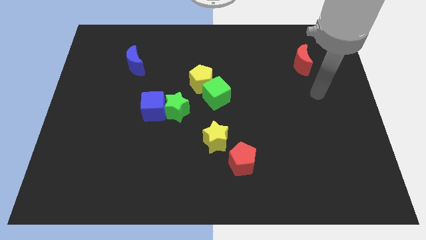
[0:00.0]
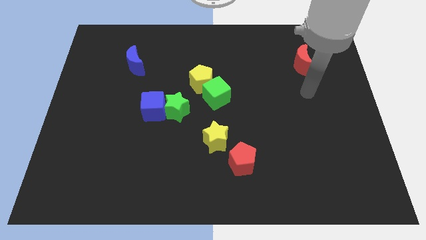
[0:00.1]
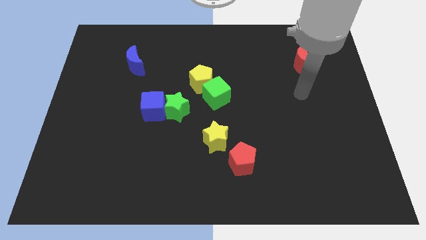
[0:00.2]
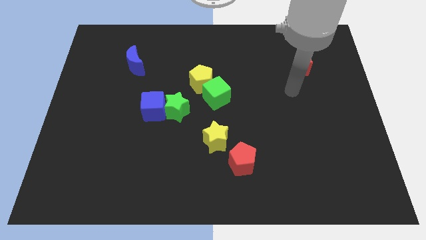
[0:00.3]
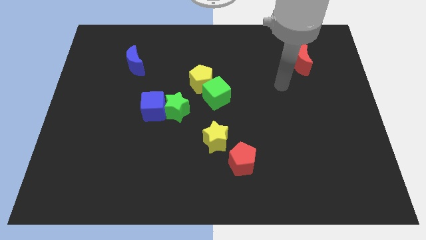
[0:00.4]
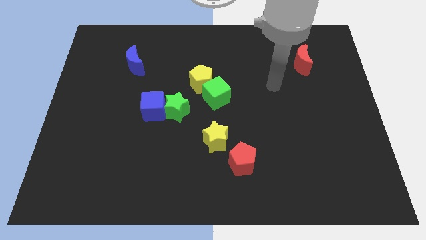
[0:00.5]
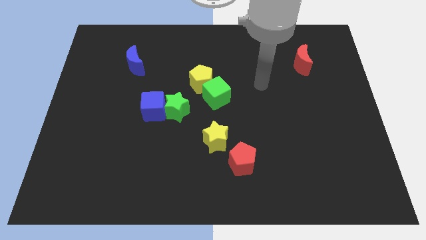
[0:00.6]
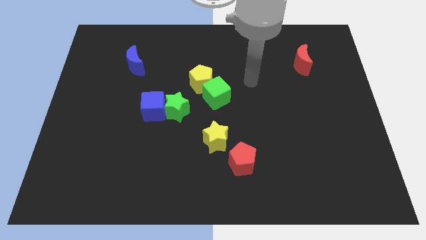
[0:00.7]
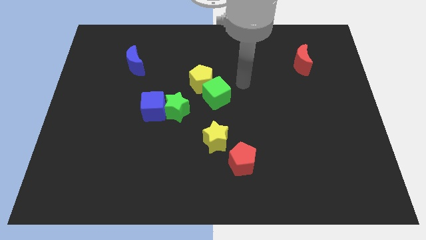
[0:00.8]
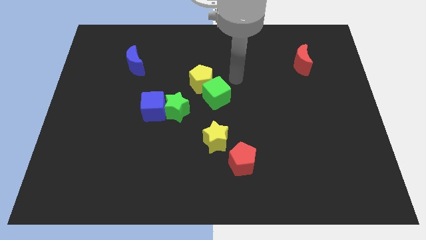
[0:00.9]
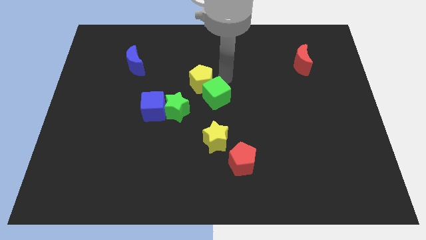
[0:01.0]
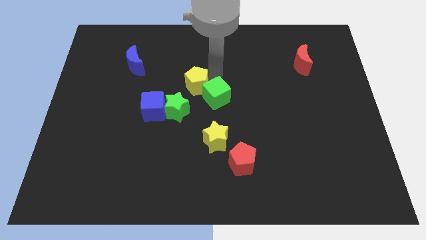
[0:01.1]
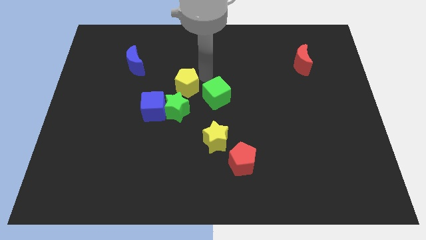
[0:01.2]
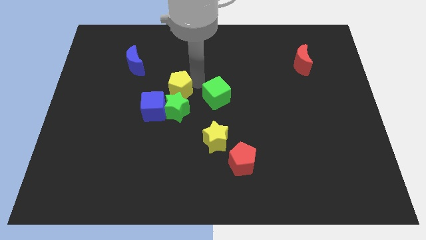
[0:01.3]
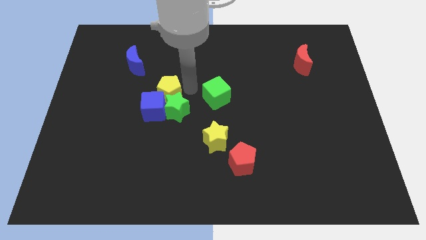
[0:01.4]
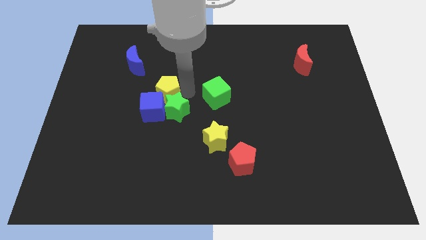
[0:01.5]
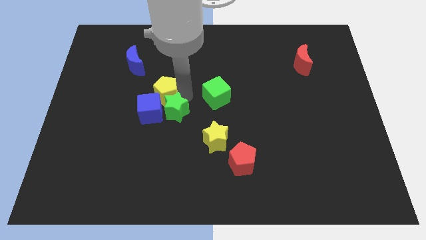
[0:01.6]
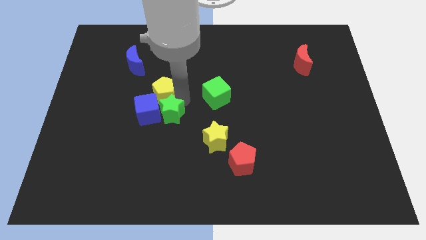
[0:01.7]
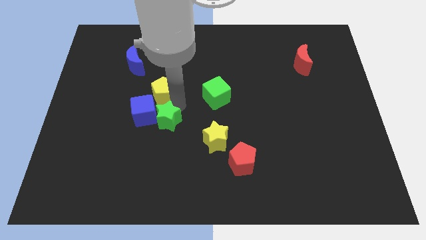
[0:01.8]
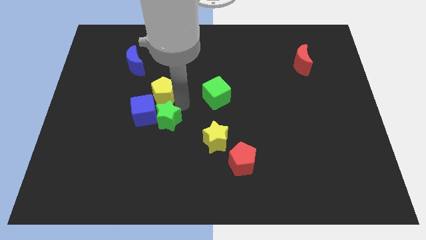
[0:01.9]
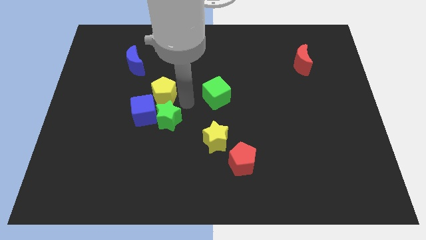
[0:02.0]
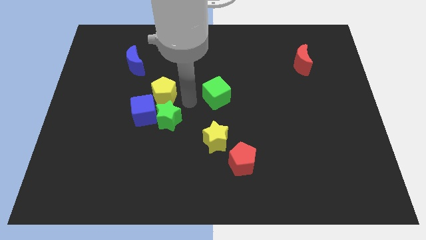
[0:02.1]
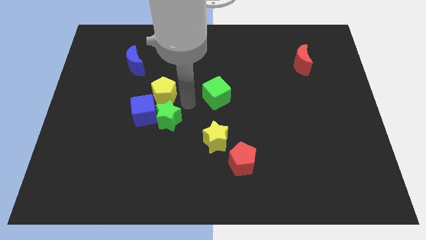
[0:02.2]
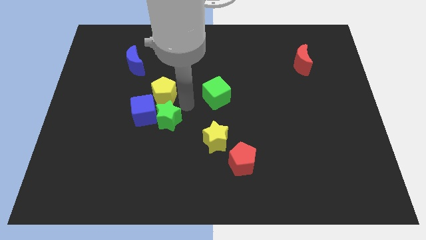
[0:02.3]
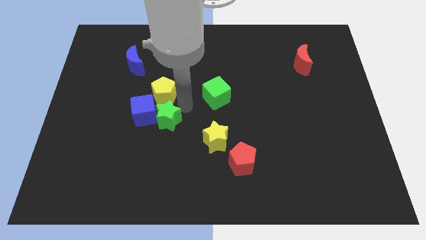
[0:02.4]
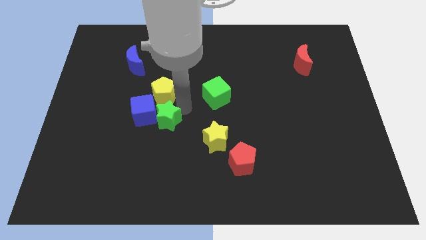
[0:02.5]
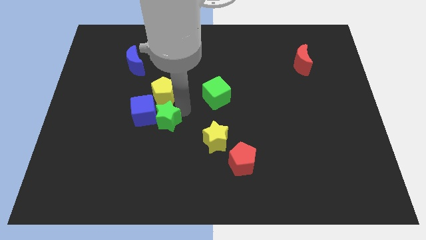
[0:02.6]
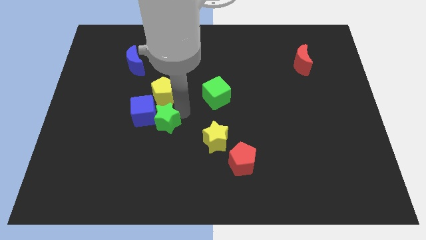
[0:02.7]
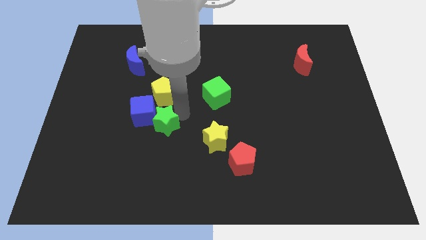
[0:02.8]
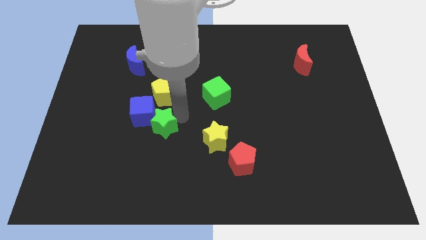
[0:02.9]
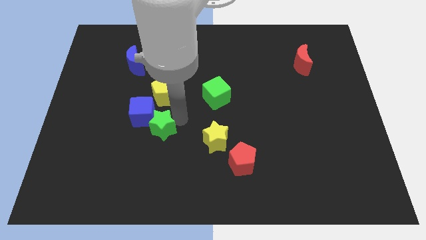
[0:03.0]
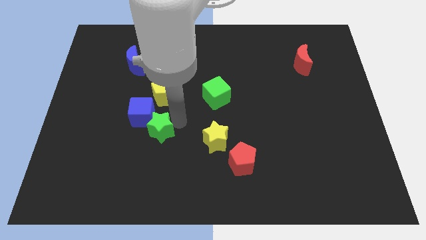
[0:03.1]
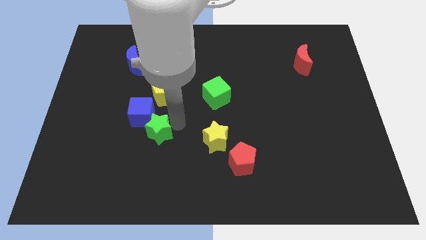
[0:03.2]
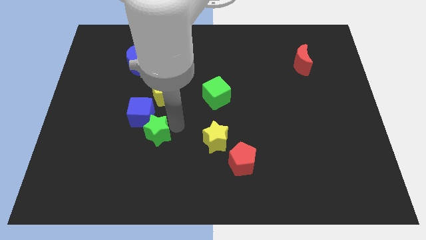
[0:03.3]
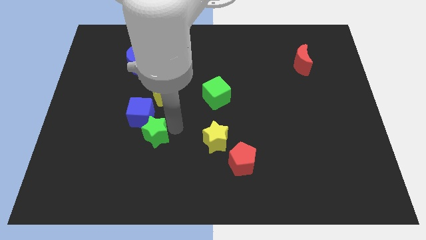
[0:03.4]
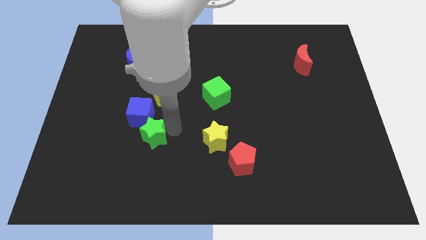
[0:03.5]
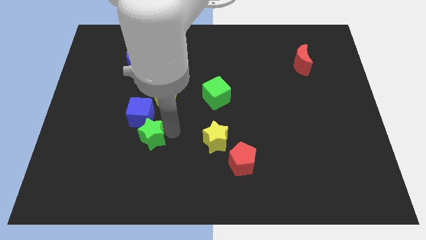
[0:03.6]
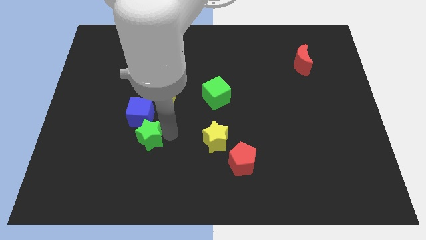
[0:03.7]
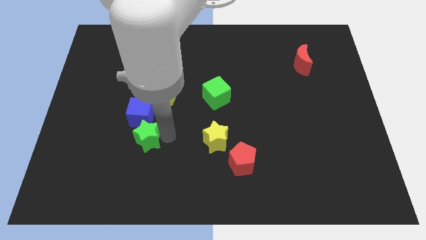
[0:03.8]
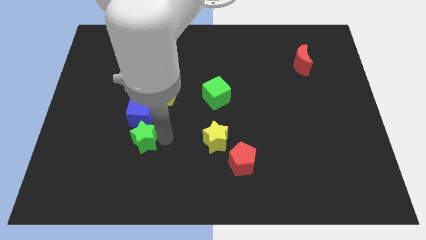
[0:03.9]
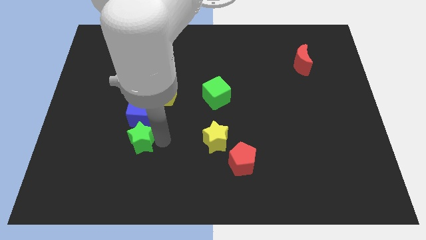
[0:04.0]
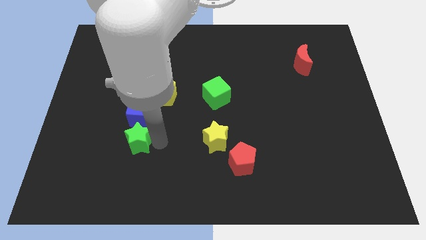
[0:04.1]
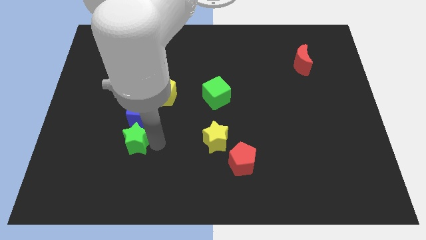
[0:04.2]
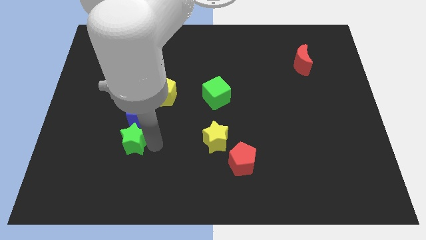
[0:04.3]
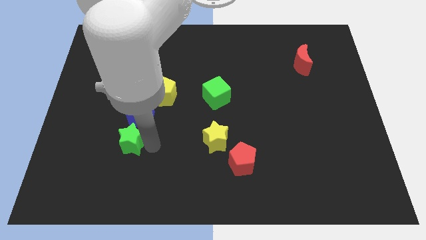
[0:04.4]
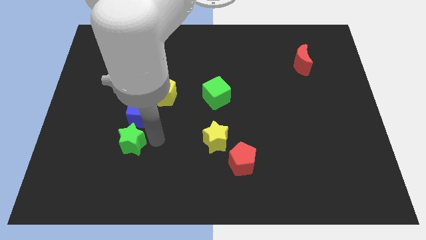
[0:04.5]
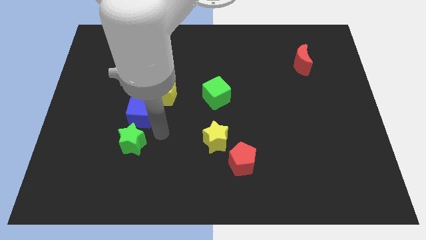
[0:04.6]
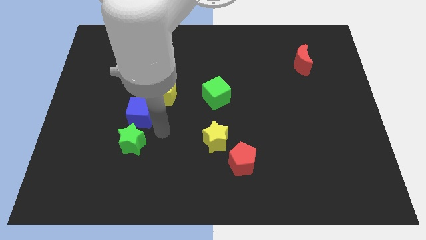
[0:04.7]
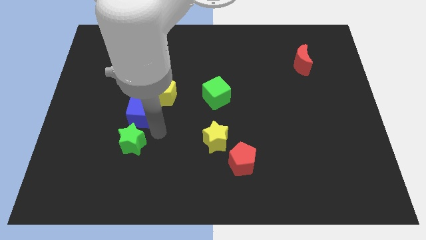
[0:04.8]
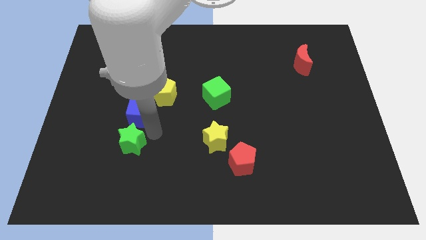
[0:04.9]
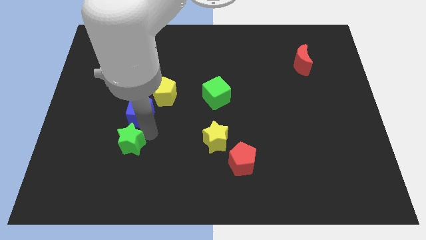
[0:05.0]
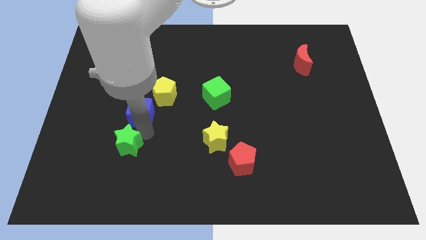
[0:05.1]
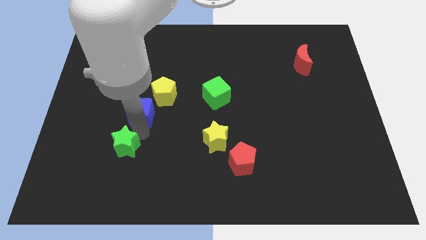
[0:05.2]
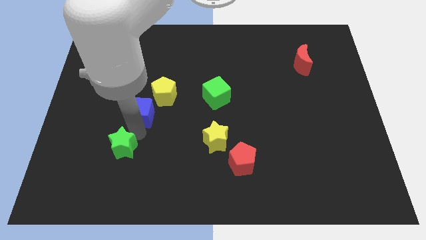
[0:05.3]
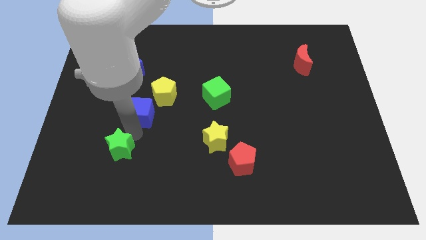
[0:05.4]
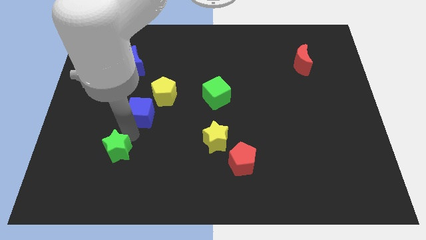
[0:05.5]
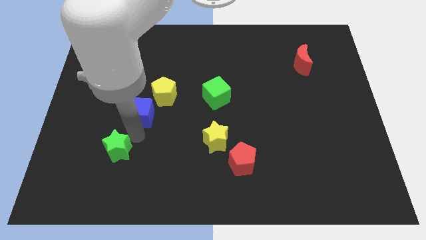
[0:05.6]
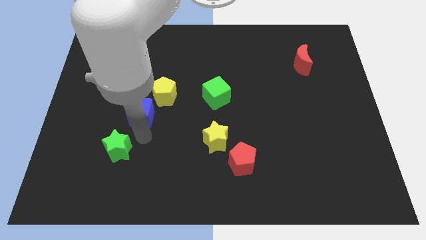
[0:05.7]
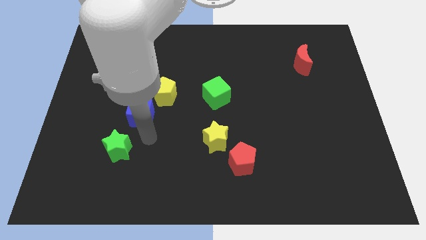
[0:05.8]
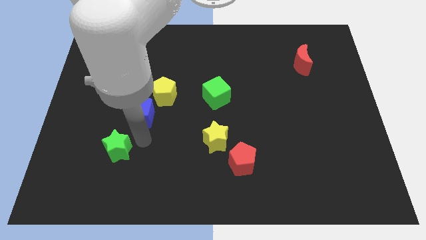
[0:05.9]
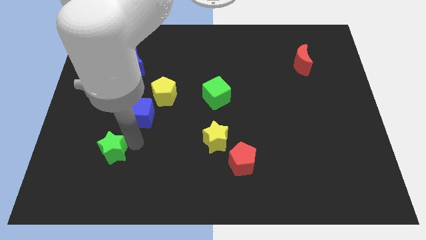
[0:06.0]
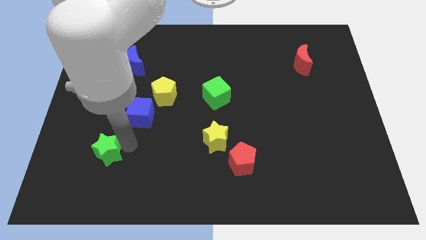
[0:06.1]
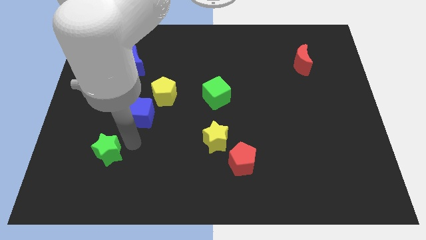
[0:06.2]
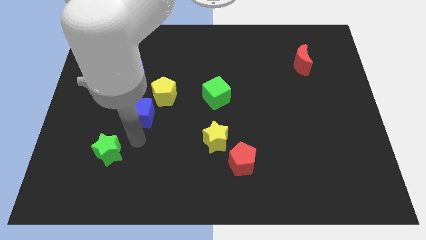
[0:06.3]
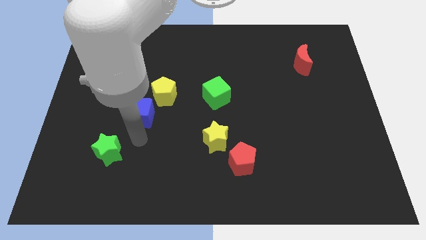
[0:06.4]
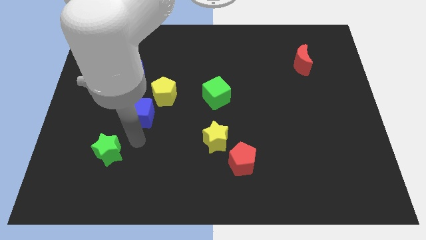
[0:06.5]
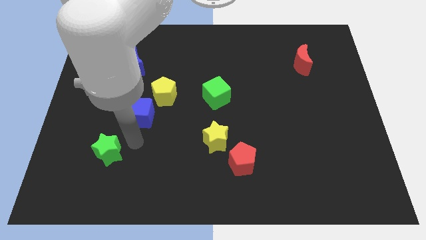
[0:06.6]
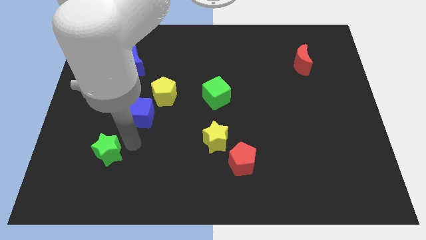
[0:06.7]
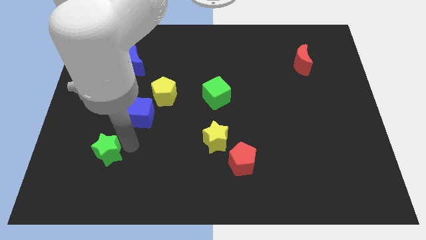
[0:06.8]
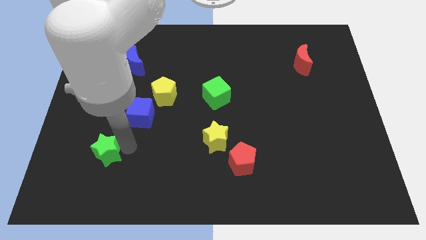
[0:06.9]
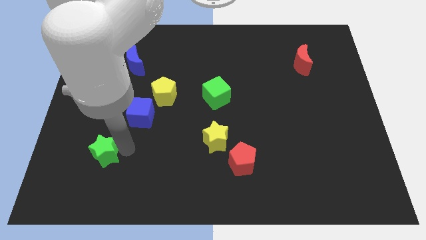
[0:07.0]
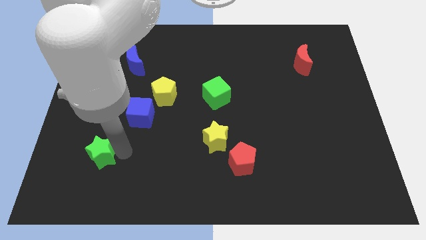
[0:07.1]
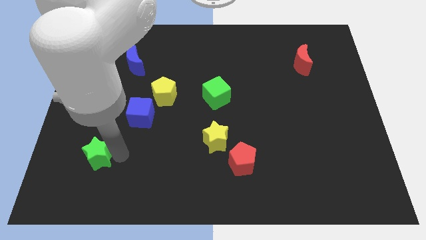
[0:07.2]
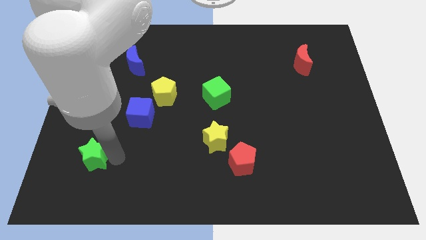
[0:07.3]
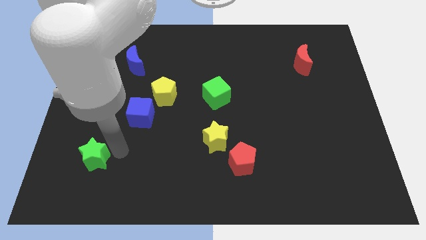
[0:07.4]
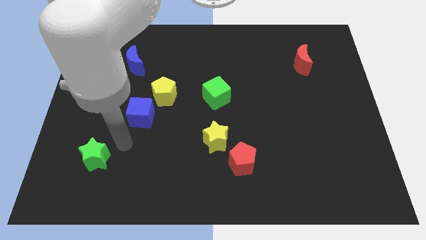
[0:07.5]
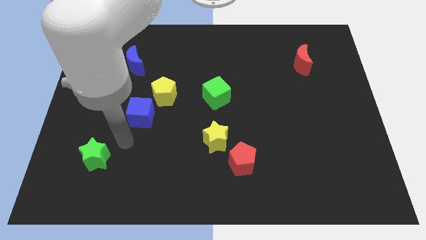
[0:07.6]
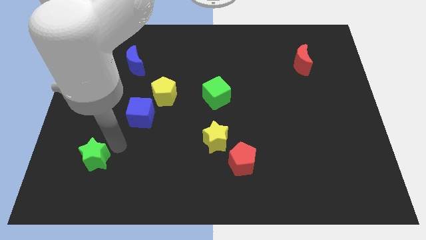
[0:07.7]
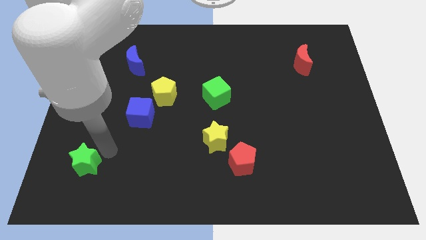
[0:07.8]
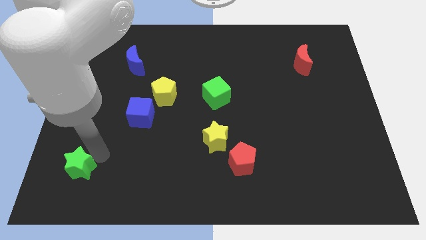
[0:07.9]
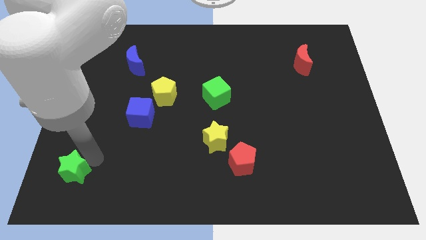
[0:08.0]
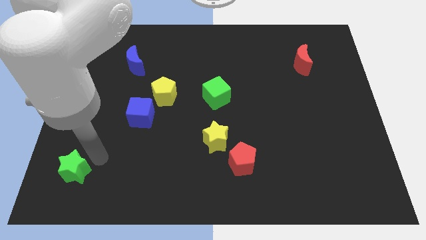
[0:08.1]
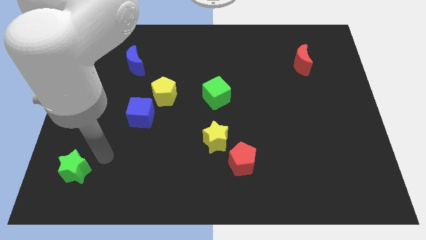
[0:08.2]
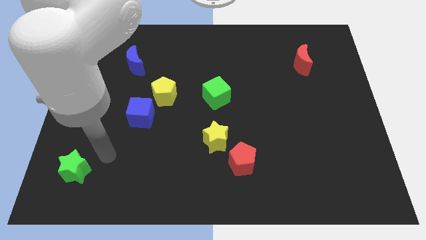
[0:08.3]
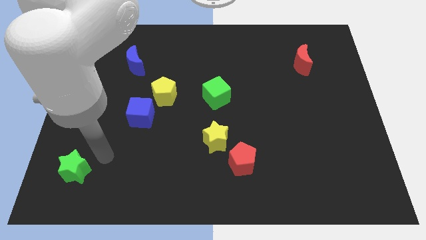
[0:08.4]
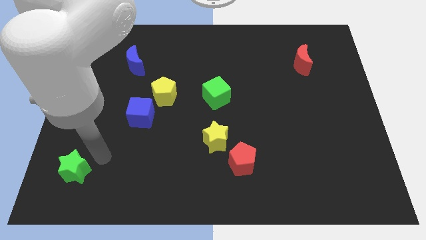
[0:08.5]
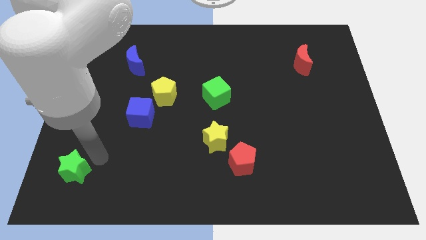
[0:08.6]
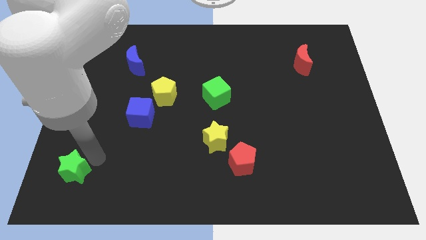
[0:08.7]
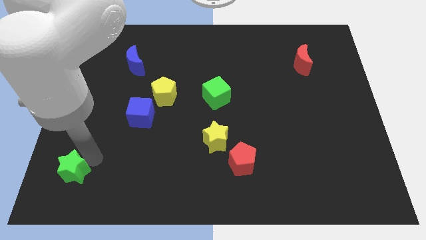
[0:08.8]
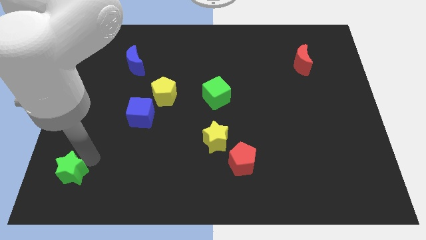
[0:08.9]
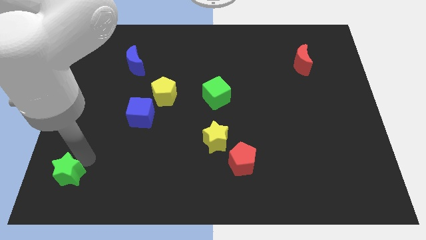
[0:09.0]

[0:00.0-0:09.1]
slide the green star to the bottom left
